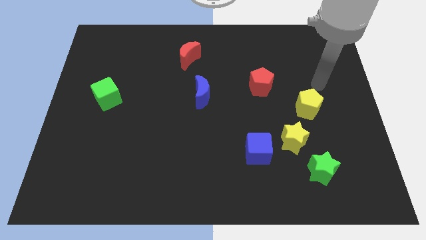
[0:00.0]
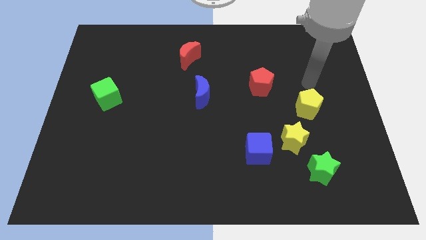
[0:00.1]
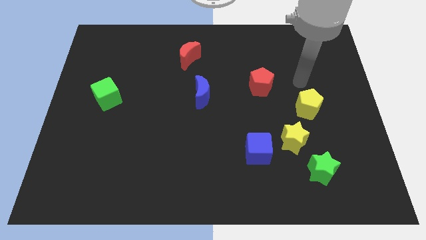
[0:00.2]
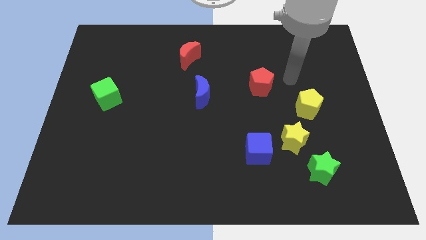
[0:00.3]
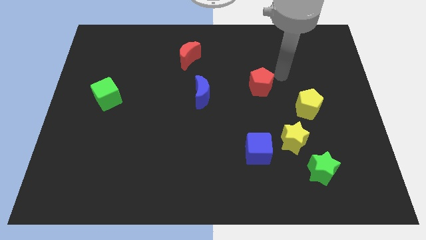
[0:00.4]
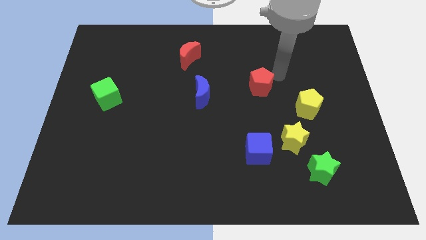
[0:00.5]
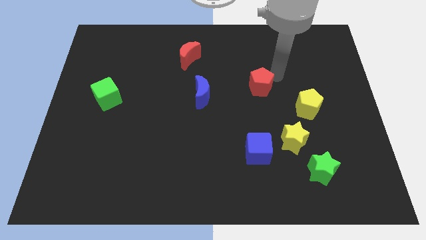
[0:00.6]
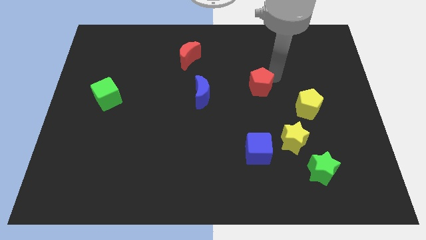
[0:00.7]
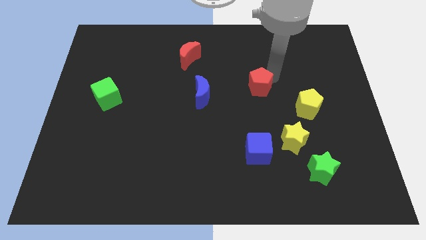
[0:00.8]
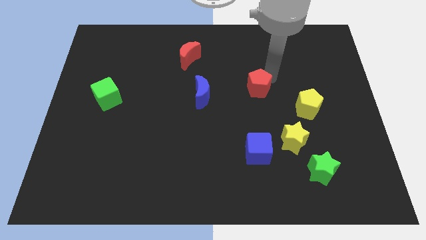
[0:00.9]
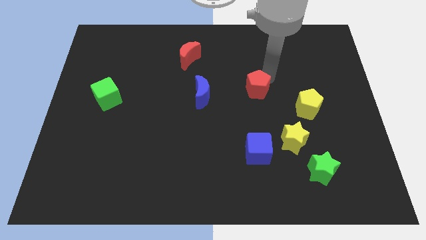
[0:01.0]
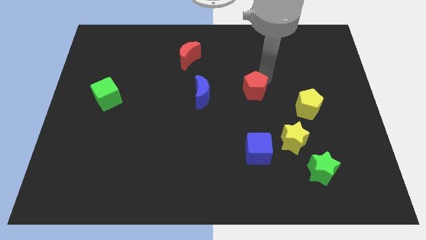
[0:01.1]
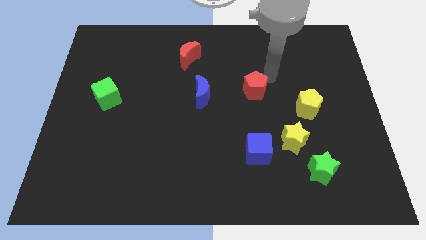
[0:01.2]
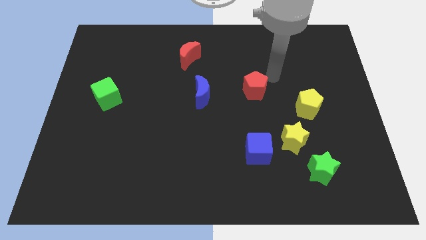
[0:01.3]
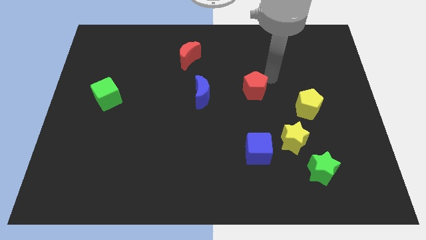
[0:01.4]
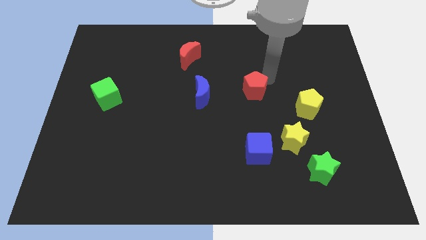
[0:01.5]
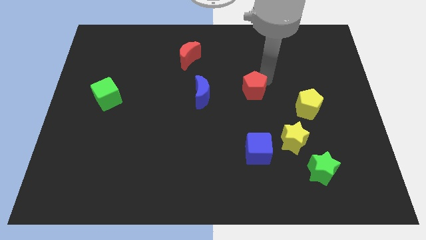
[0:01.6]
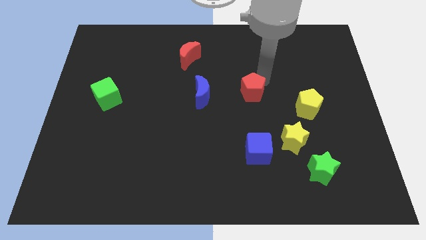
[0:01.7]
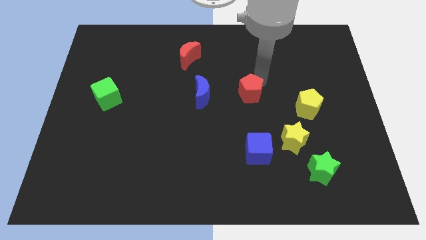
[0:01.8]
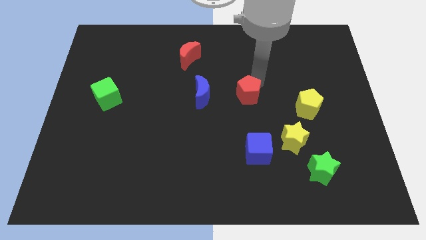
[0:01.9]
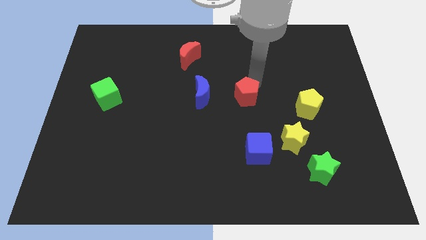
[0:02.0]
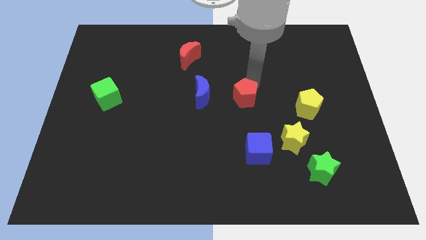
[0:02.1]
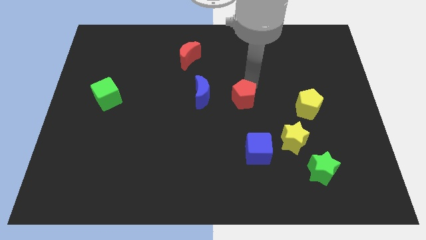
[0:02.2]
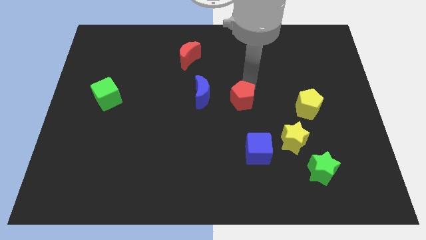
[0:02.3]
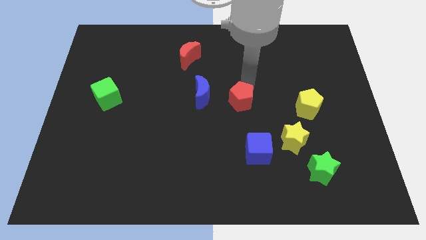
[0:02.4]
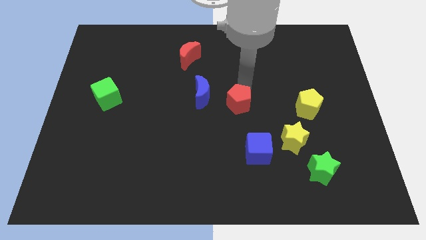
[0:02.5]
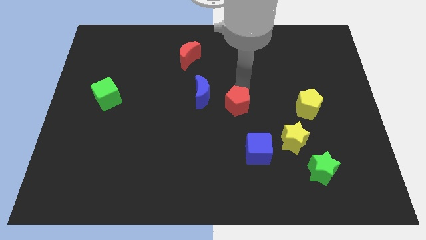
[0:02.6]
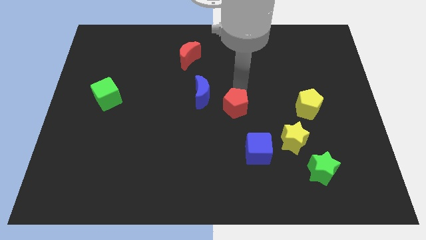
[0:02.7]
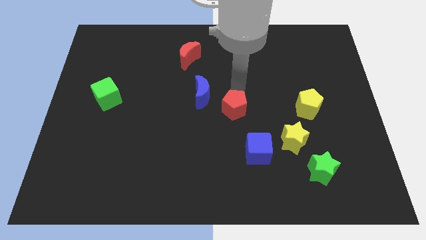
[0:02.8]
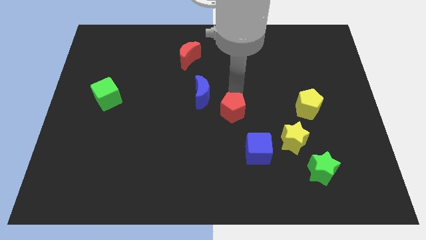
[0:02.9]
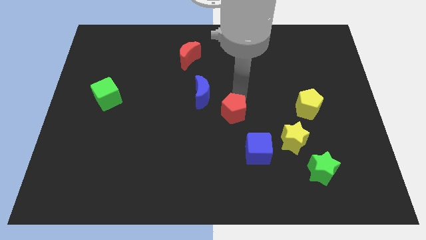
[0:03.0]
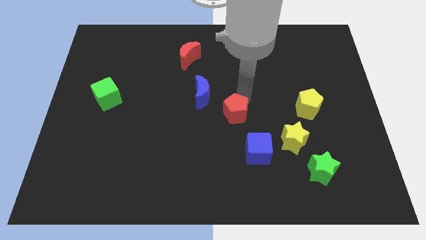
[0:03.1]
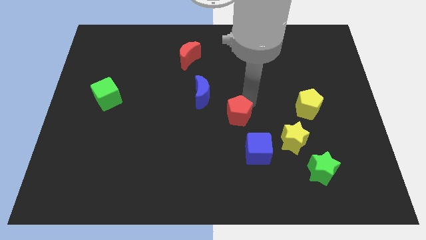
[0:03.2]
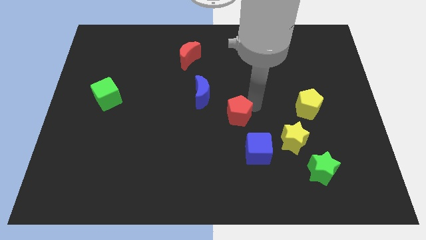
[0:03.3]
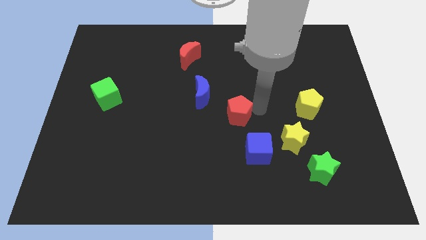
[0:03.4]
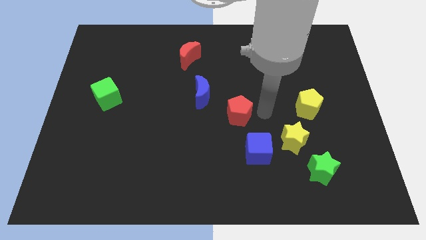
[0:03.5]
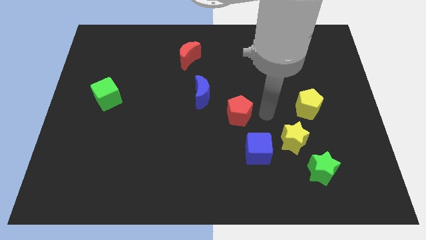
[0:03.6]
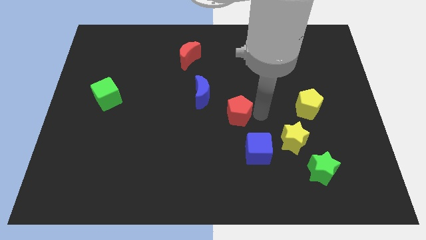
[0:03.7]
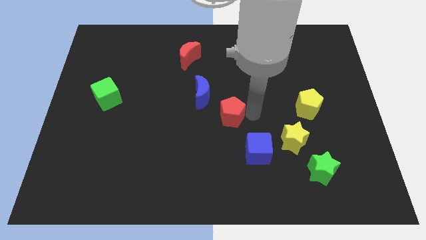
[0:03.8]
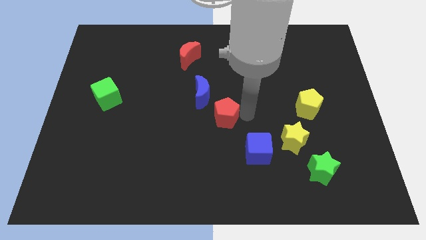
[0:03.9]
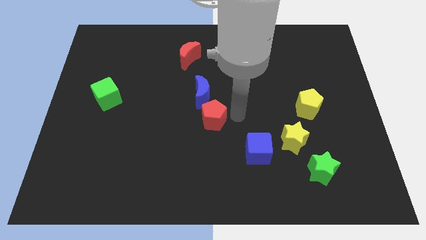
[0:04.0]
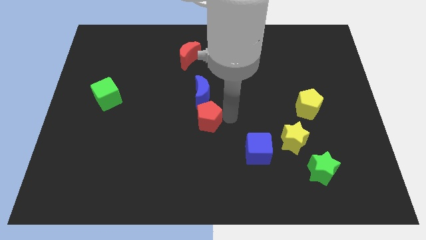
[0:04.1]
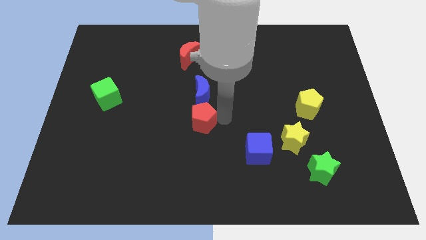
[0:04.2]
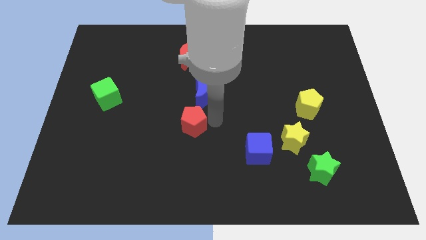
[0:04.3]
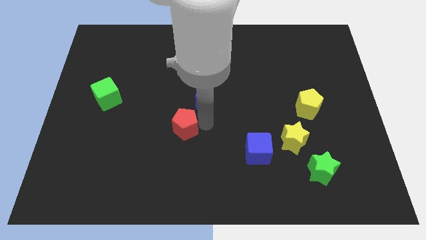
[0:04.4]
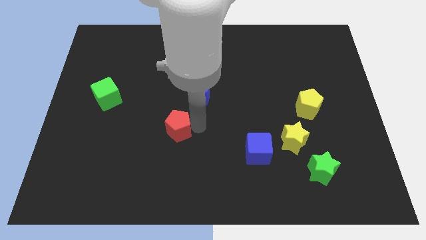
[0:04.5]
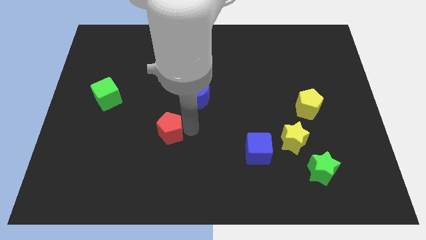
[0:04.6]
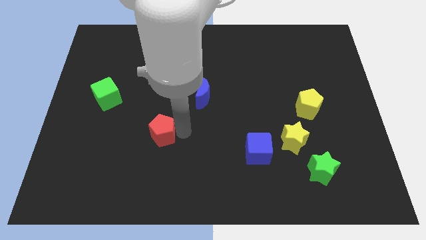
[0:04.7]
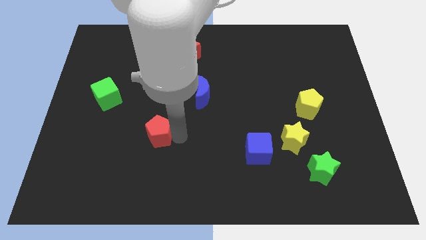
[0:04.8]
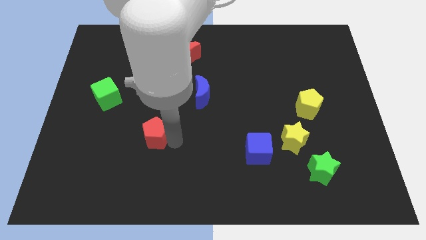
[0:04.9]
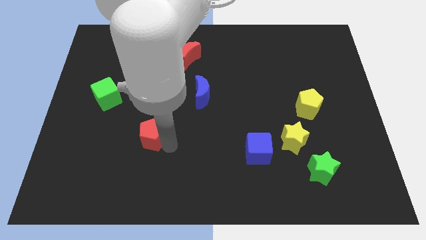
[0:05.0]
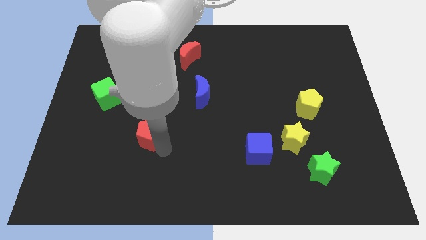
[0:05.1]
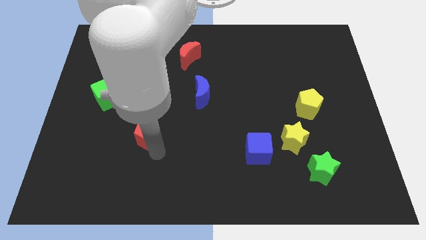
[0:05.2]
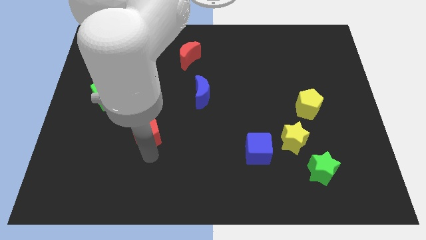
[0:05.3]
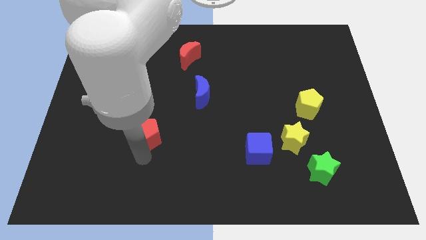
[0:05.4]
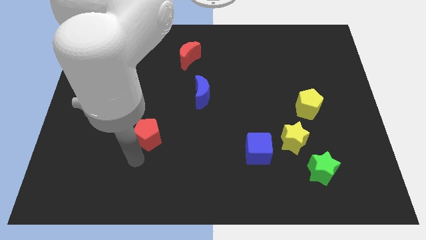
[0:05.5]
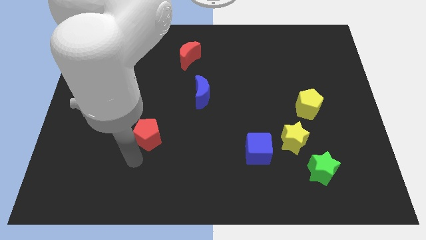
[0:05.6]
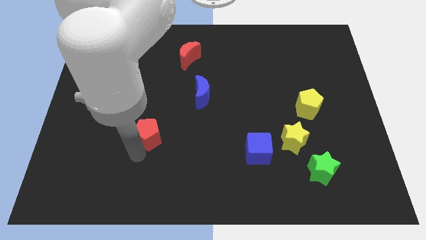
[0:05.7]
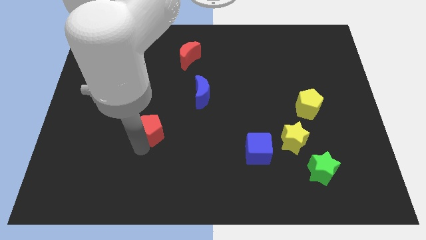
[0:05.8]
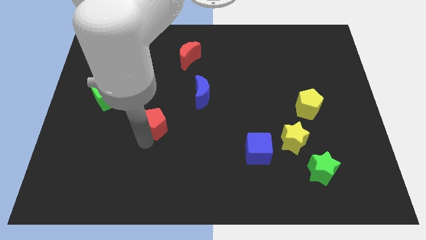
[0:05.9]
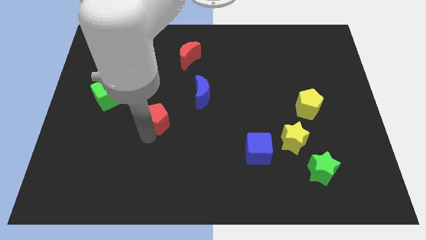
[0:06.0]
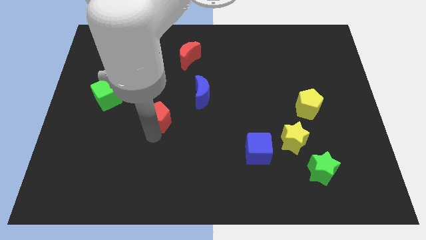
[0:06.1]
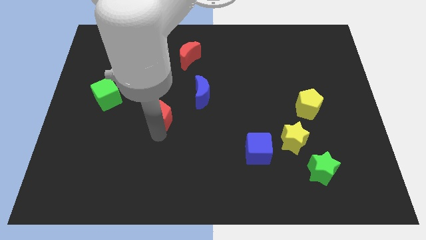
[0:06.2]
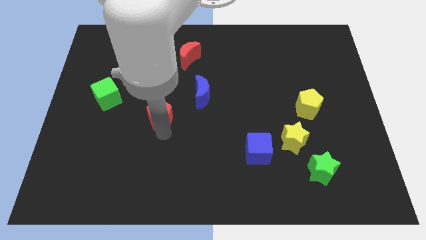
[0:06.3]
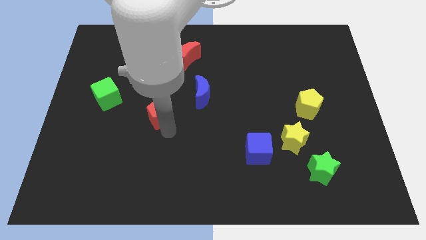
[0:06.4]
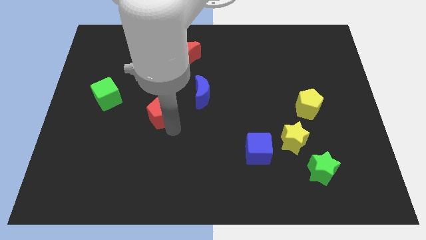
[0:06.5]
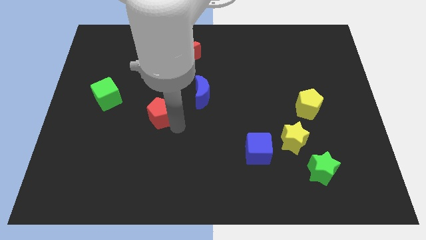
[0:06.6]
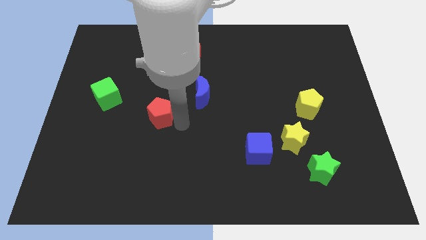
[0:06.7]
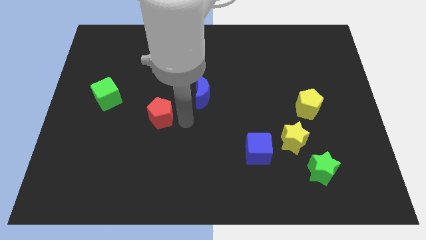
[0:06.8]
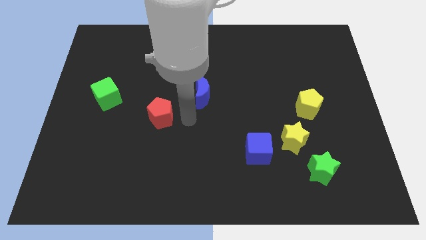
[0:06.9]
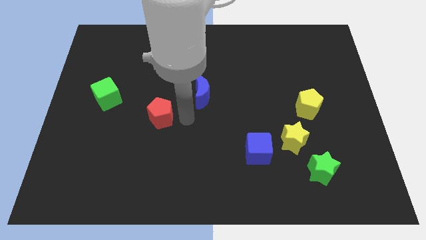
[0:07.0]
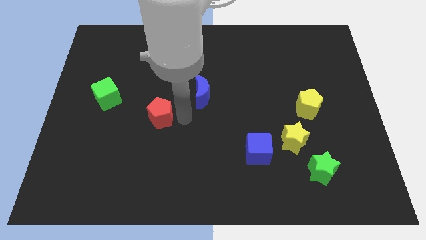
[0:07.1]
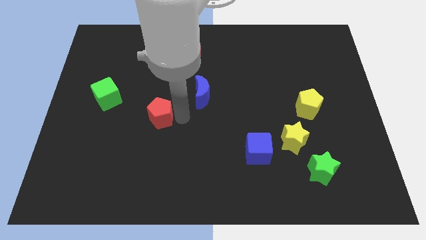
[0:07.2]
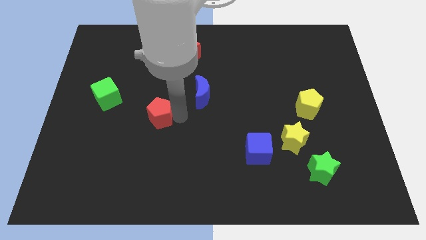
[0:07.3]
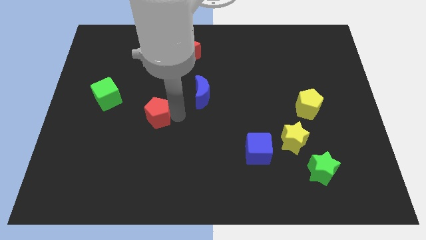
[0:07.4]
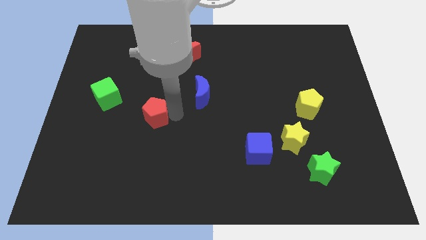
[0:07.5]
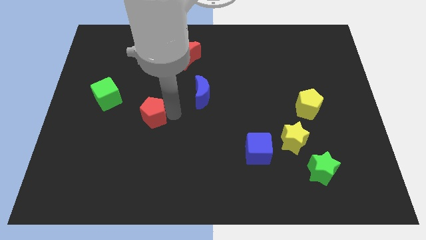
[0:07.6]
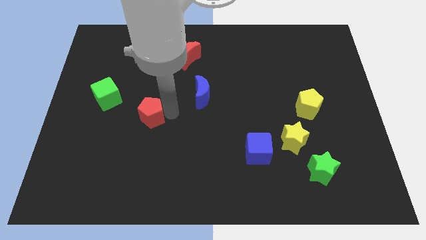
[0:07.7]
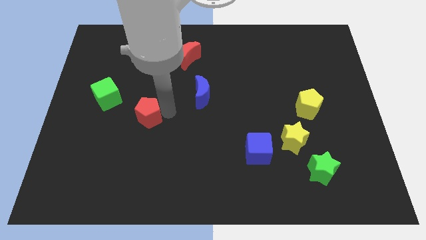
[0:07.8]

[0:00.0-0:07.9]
put the red pentagon to the bottom right side of the green cube
